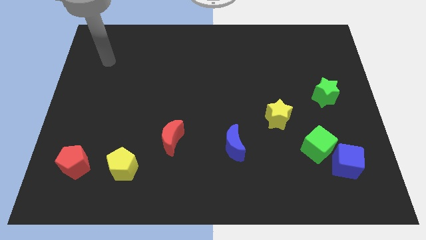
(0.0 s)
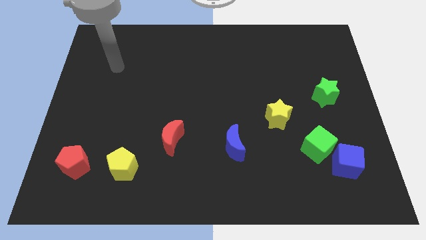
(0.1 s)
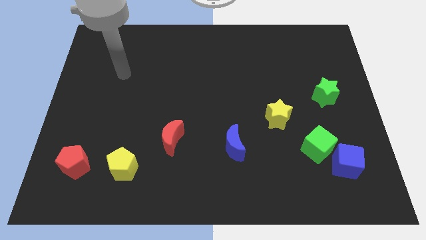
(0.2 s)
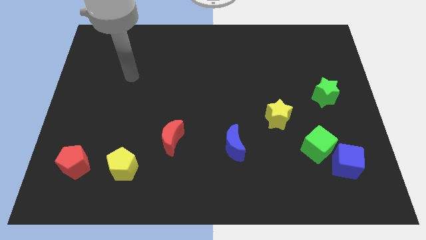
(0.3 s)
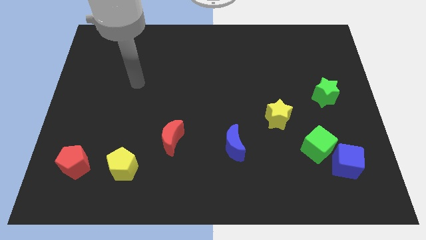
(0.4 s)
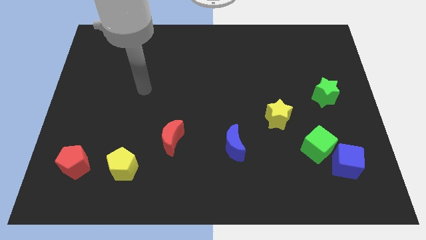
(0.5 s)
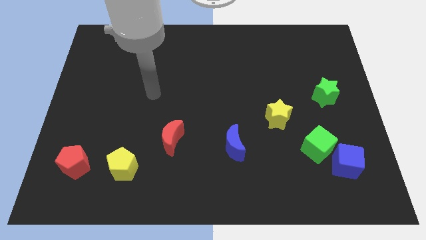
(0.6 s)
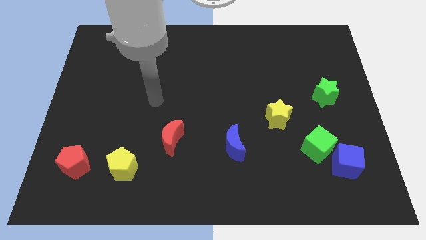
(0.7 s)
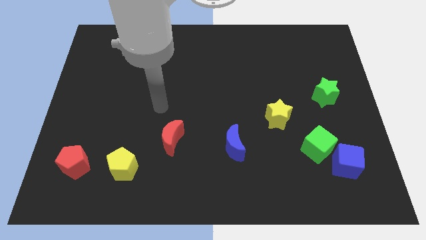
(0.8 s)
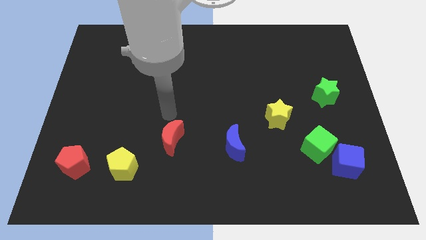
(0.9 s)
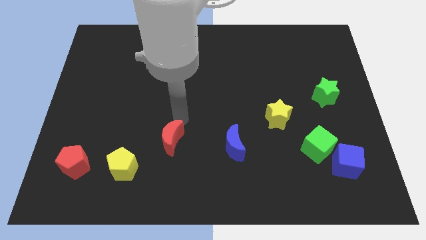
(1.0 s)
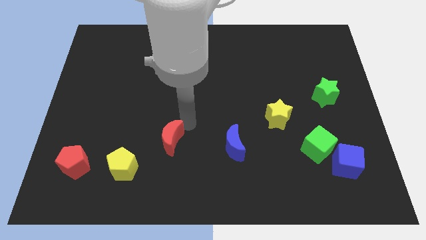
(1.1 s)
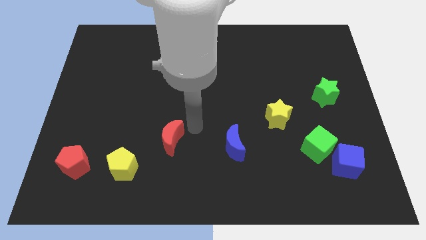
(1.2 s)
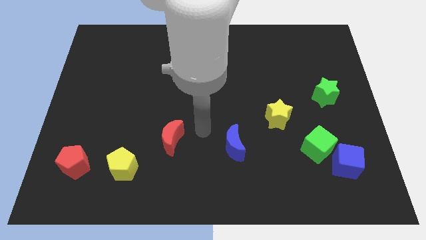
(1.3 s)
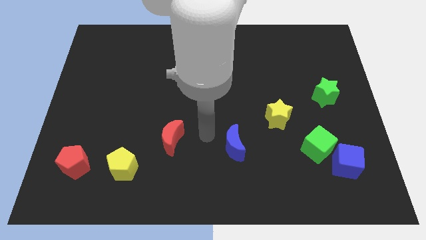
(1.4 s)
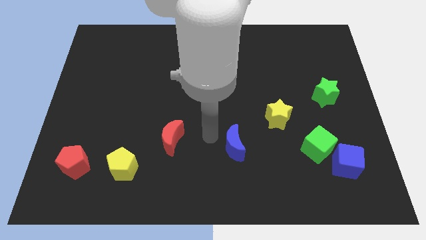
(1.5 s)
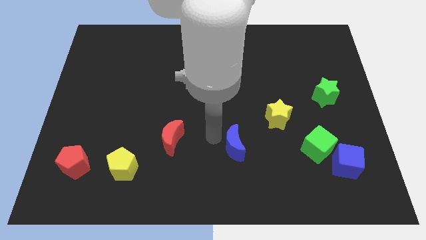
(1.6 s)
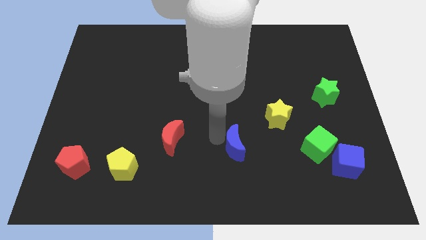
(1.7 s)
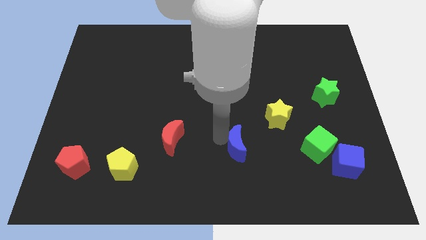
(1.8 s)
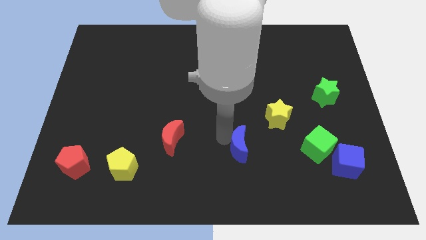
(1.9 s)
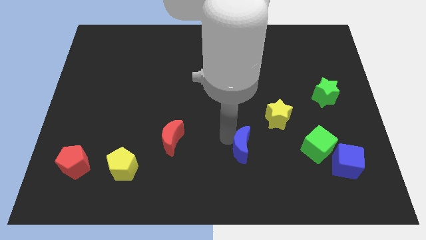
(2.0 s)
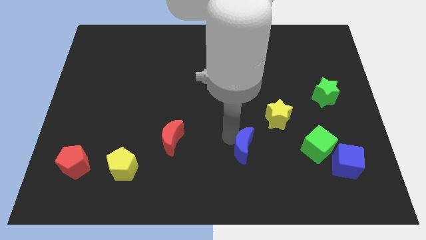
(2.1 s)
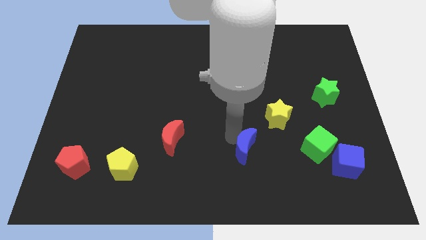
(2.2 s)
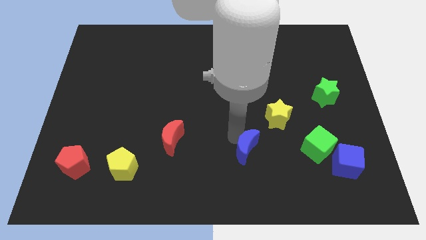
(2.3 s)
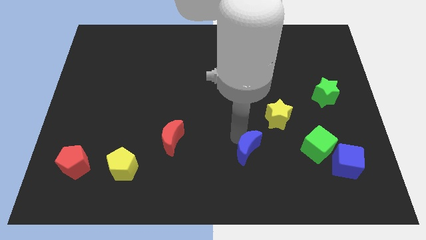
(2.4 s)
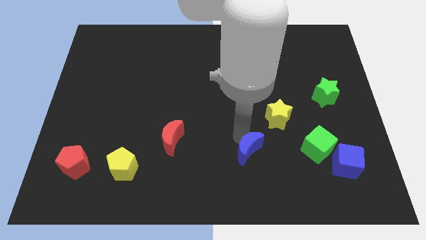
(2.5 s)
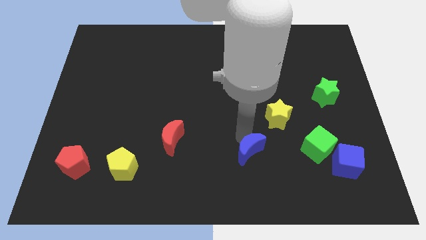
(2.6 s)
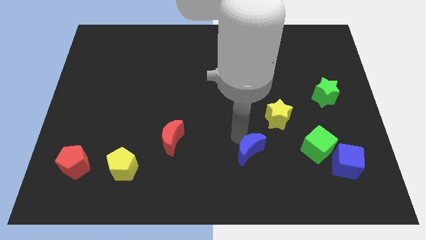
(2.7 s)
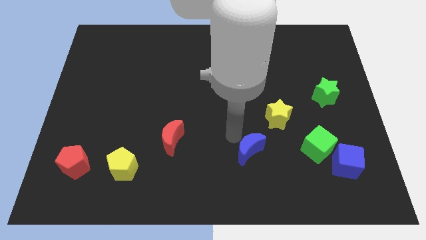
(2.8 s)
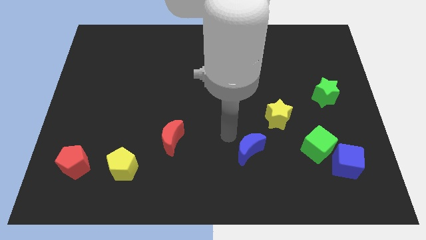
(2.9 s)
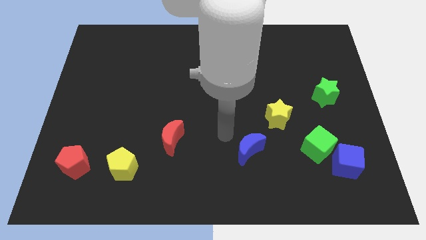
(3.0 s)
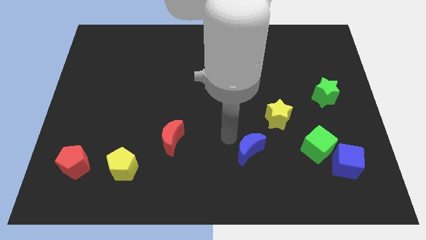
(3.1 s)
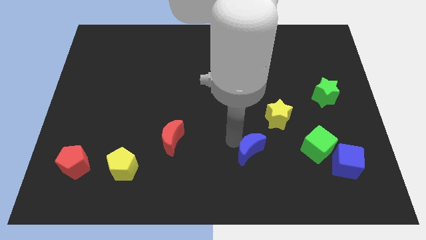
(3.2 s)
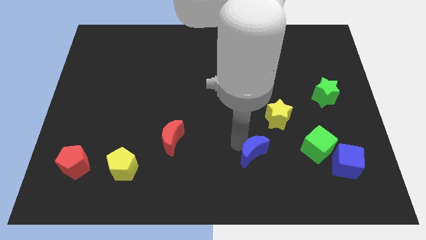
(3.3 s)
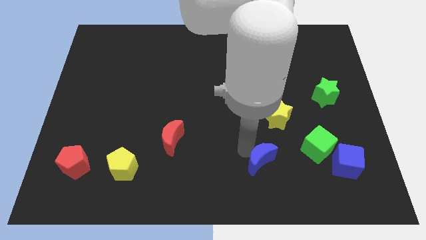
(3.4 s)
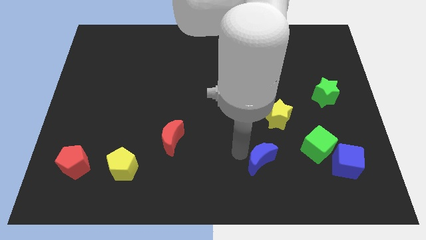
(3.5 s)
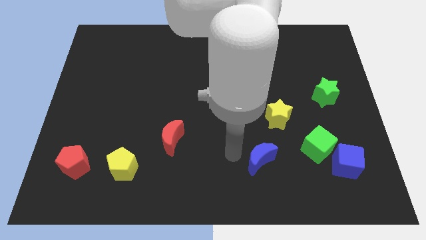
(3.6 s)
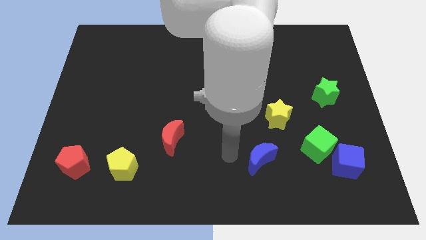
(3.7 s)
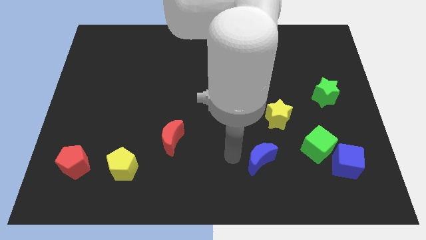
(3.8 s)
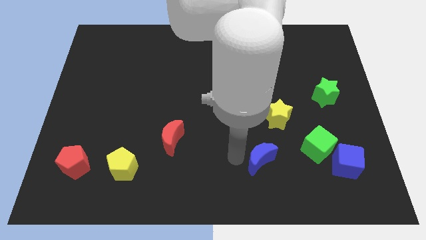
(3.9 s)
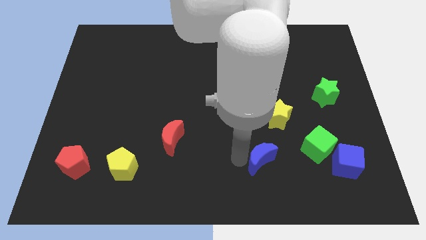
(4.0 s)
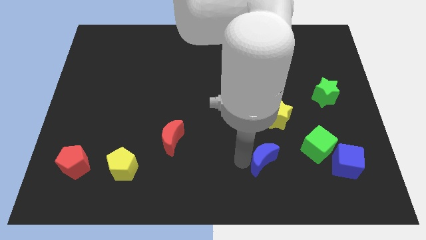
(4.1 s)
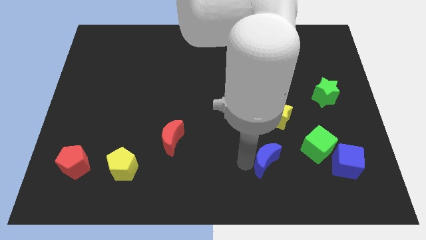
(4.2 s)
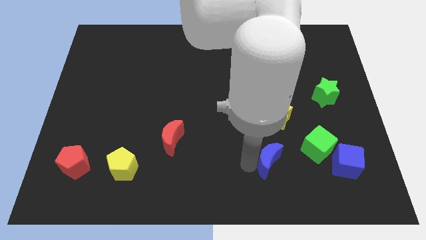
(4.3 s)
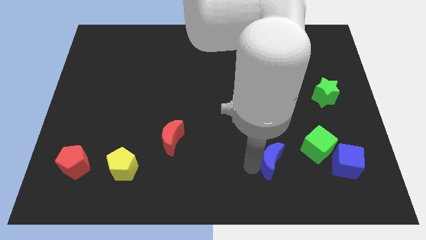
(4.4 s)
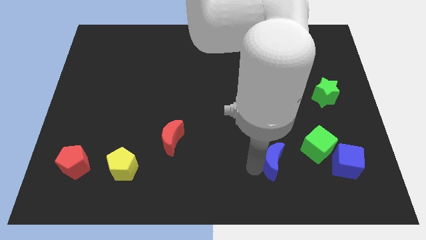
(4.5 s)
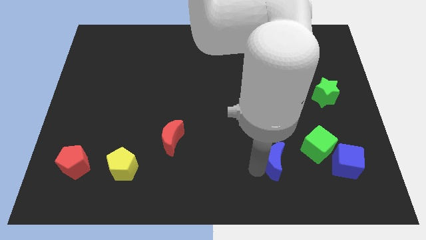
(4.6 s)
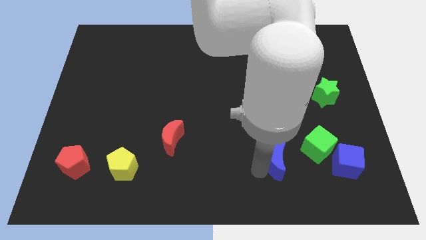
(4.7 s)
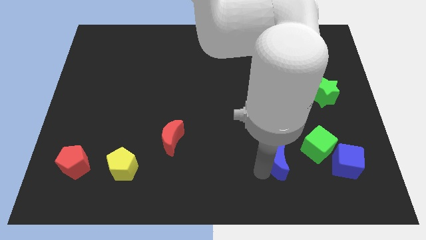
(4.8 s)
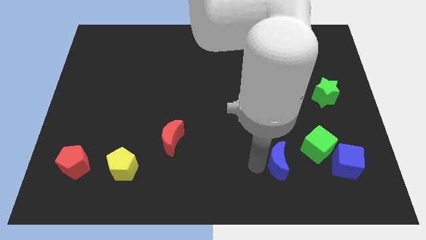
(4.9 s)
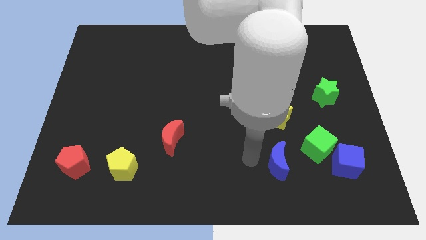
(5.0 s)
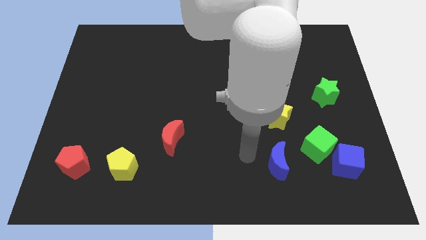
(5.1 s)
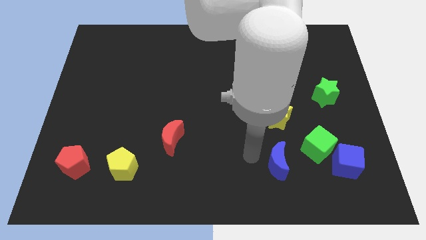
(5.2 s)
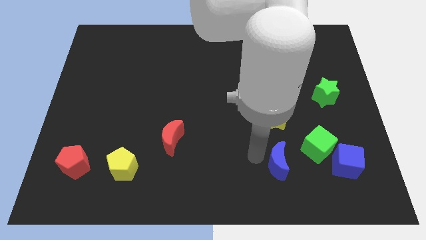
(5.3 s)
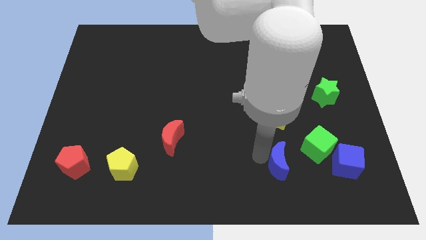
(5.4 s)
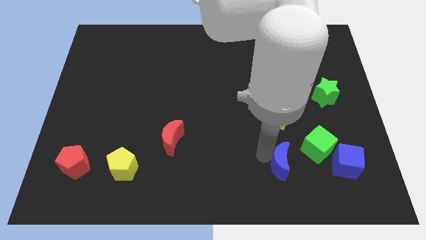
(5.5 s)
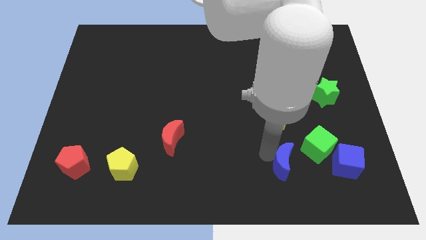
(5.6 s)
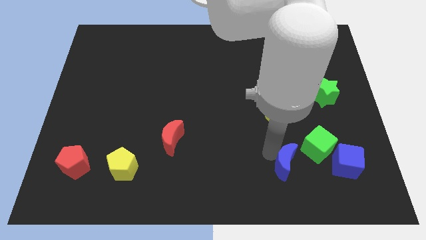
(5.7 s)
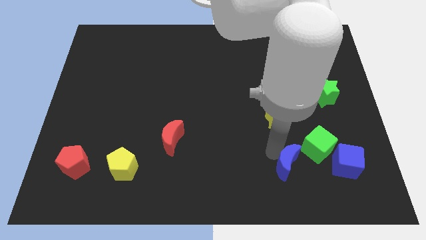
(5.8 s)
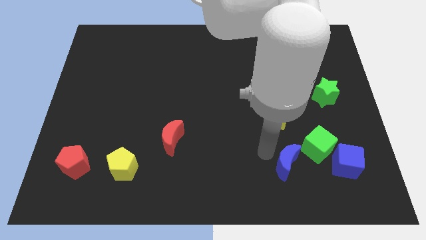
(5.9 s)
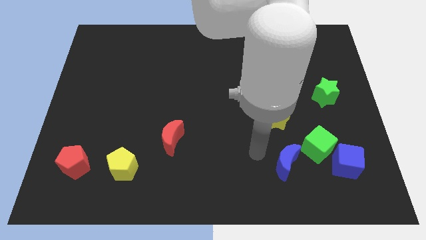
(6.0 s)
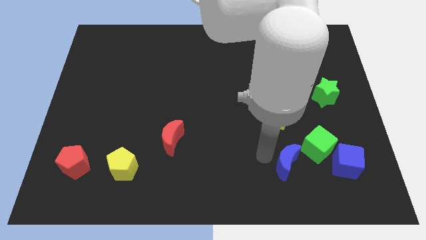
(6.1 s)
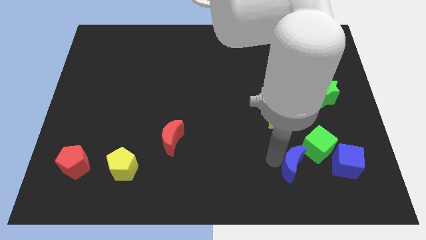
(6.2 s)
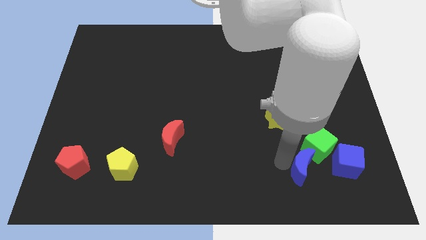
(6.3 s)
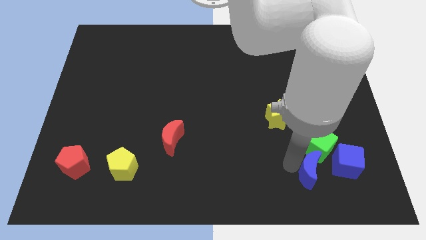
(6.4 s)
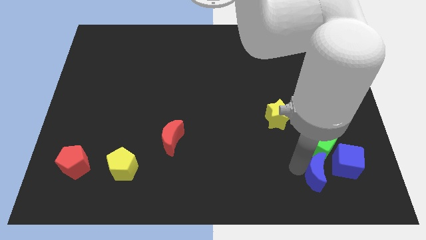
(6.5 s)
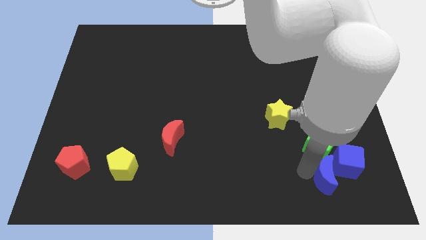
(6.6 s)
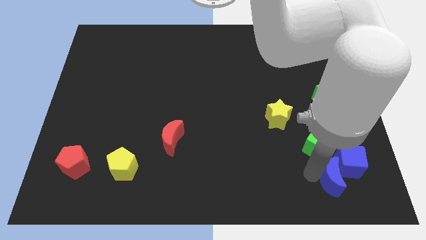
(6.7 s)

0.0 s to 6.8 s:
put the blue moon to the bottom right of the green cube
